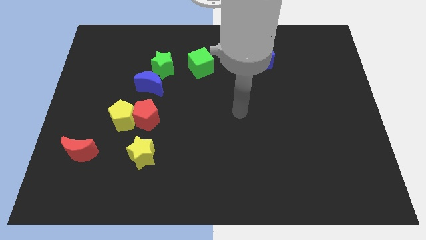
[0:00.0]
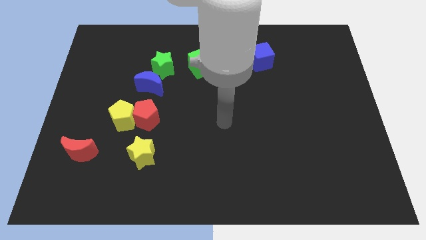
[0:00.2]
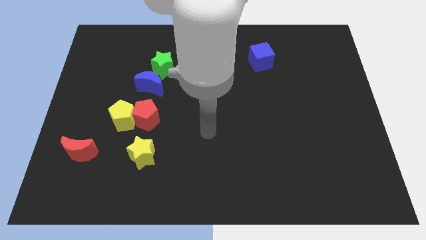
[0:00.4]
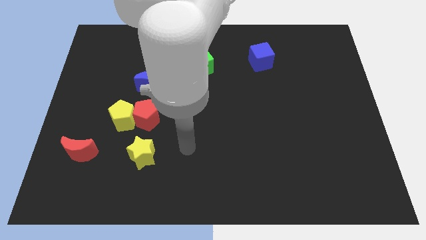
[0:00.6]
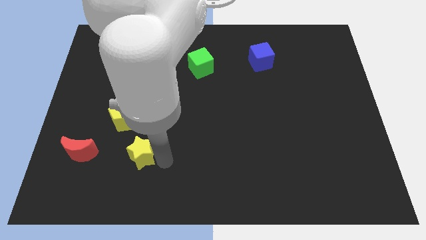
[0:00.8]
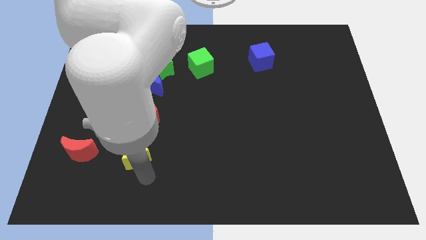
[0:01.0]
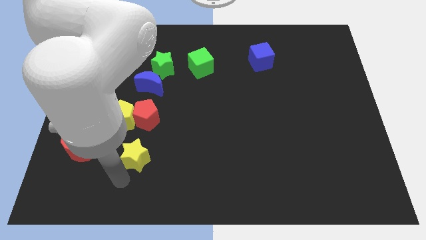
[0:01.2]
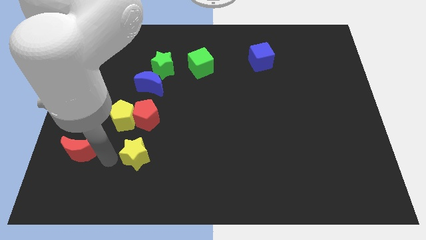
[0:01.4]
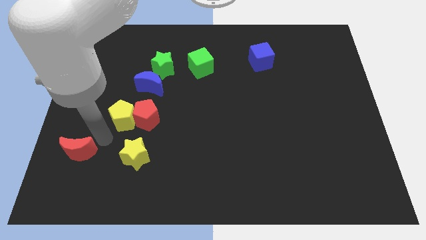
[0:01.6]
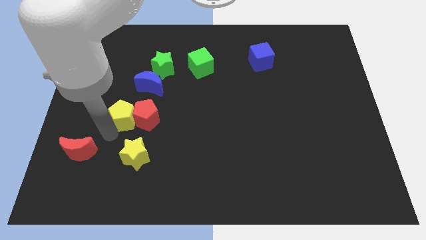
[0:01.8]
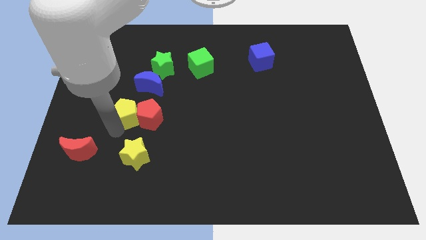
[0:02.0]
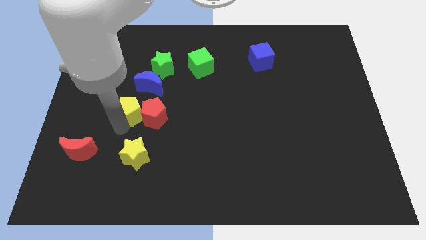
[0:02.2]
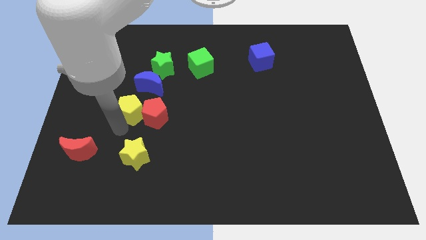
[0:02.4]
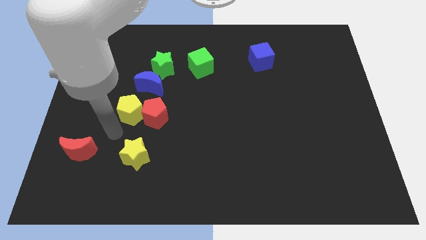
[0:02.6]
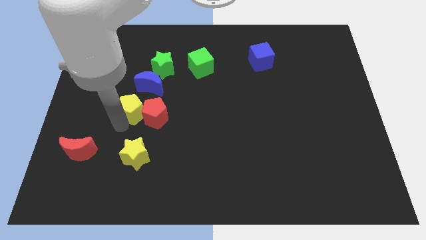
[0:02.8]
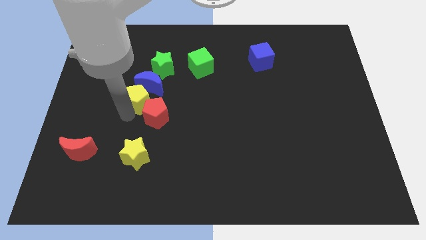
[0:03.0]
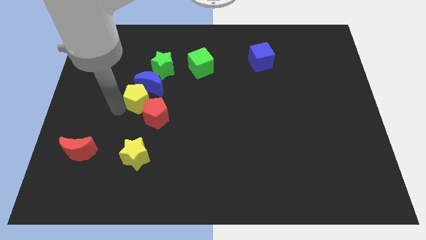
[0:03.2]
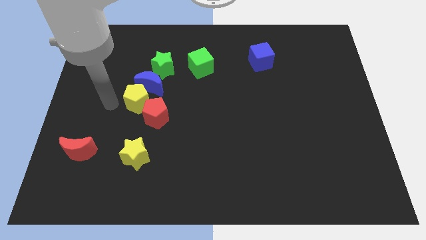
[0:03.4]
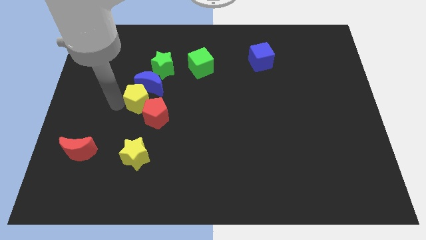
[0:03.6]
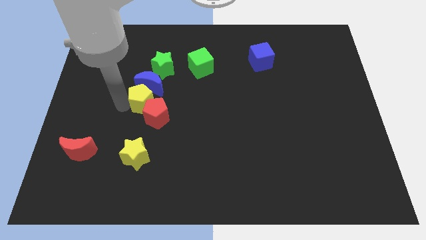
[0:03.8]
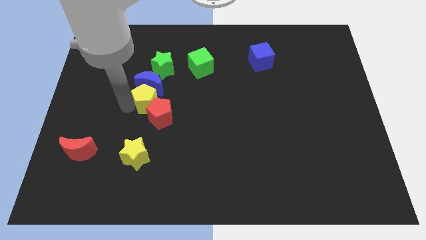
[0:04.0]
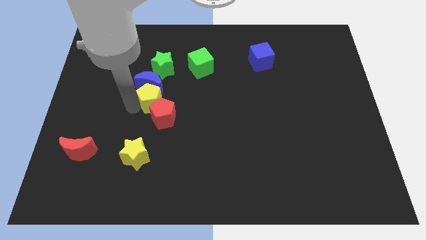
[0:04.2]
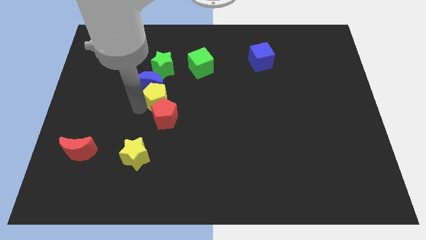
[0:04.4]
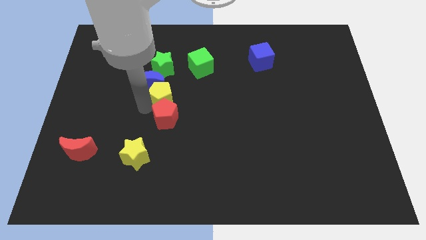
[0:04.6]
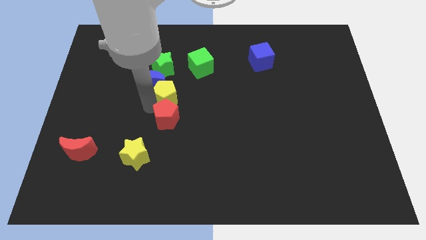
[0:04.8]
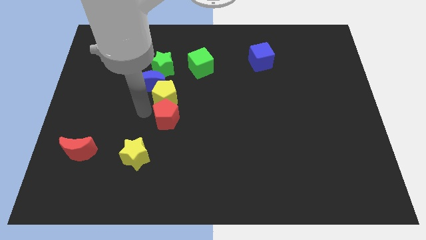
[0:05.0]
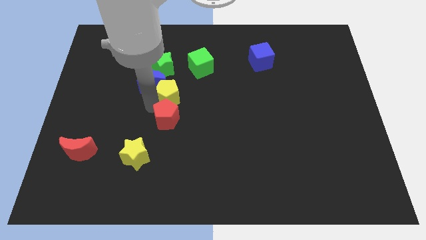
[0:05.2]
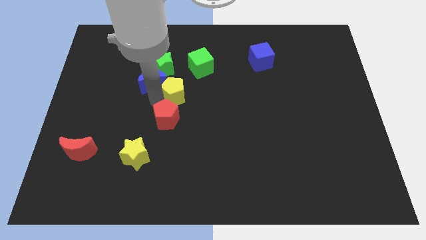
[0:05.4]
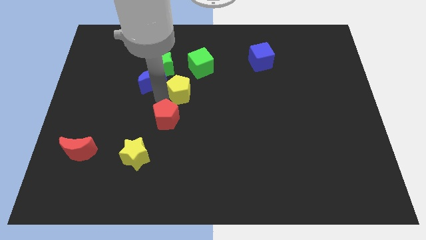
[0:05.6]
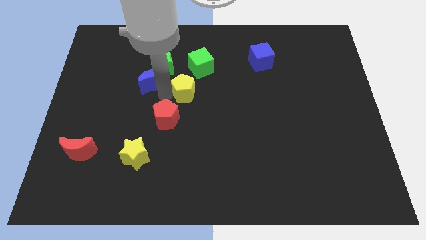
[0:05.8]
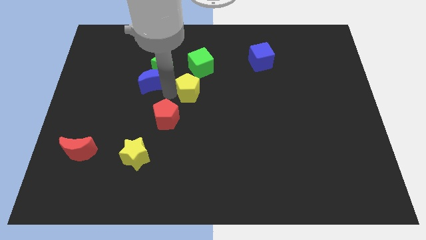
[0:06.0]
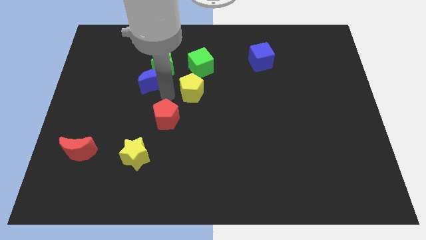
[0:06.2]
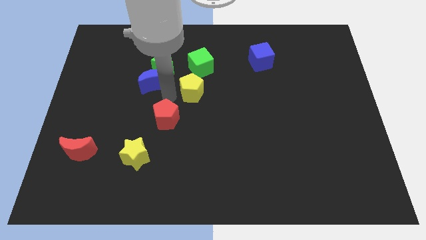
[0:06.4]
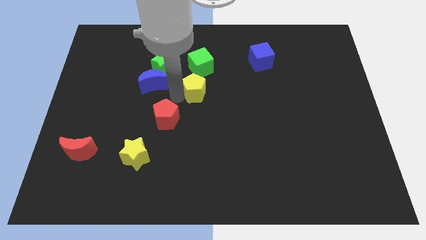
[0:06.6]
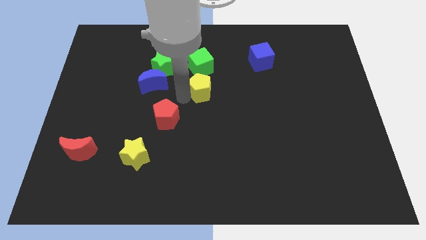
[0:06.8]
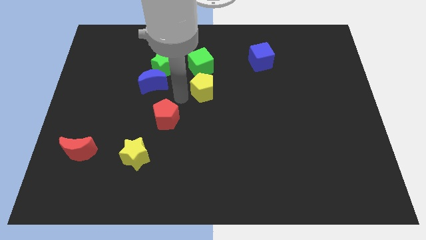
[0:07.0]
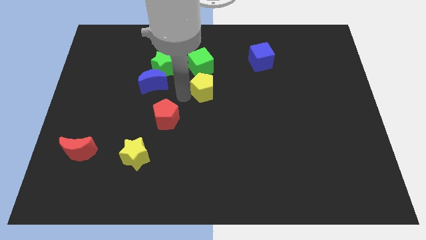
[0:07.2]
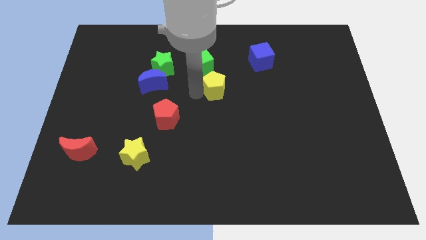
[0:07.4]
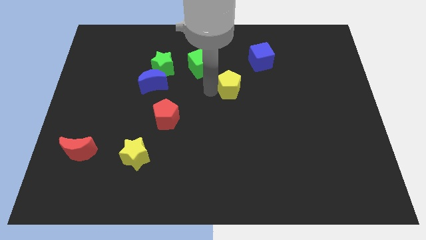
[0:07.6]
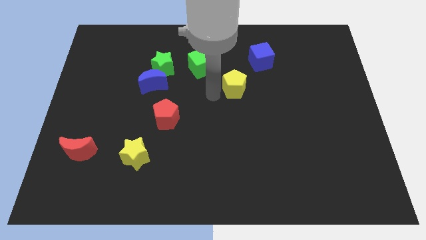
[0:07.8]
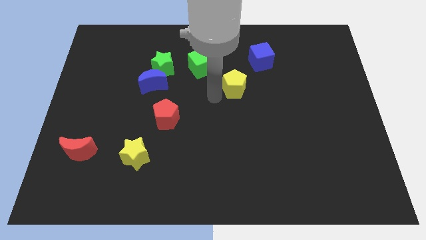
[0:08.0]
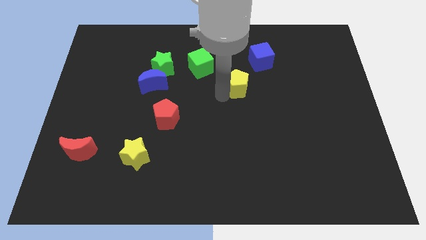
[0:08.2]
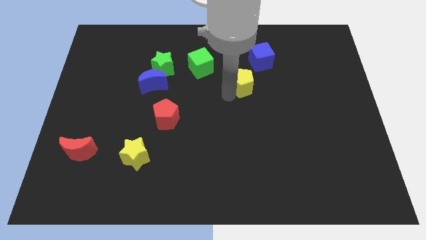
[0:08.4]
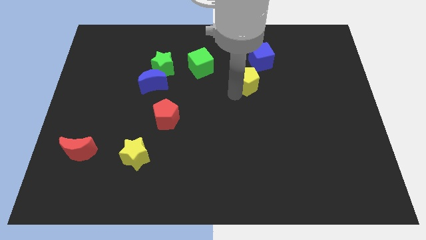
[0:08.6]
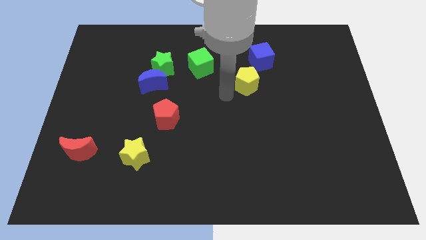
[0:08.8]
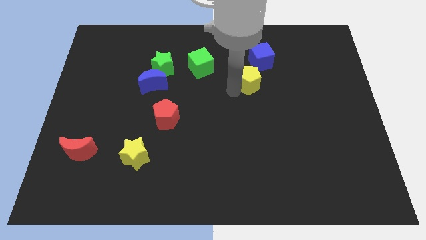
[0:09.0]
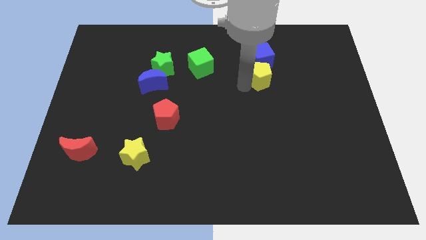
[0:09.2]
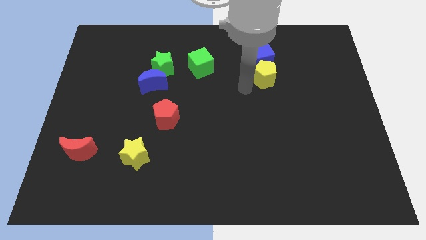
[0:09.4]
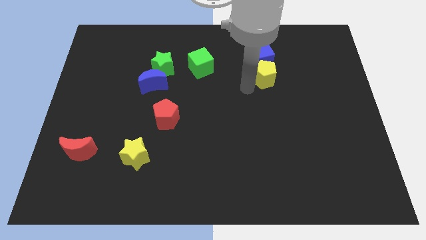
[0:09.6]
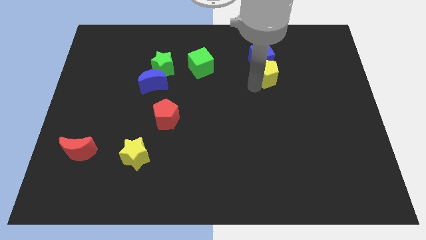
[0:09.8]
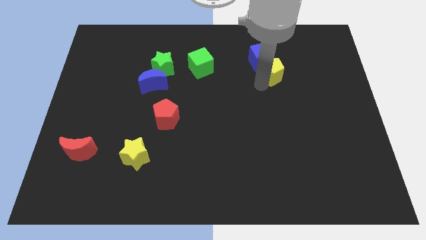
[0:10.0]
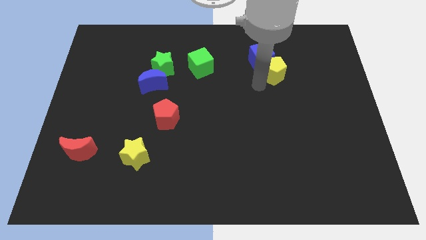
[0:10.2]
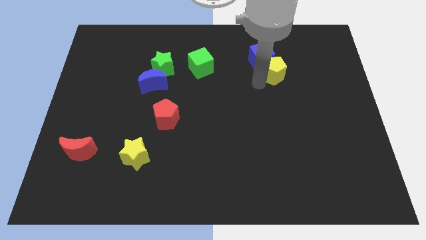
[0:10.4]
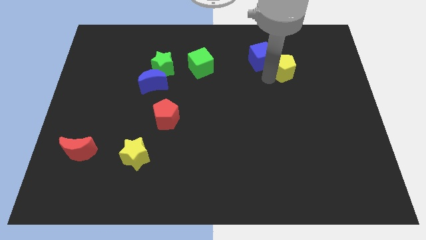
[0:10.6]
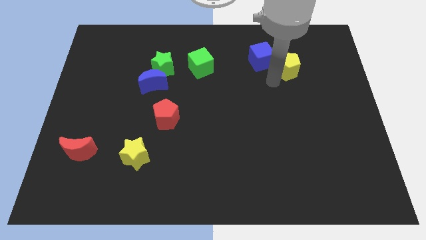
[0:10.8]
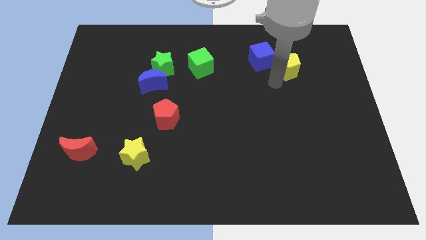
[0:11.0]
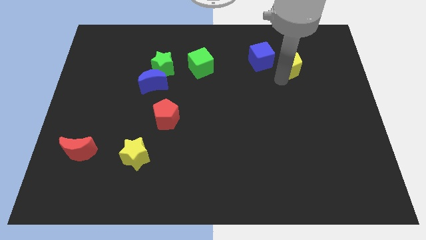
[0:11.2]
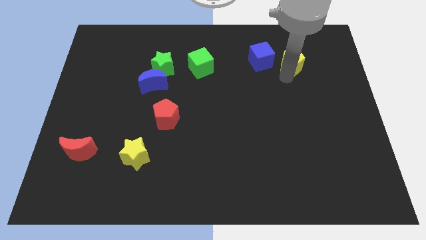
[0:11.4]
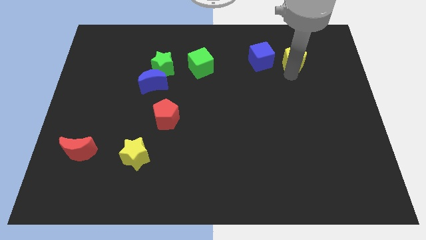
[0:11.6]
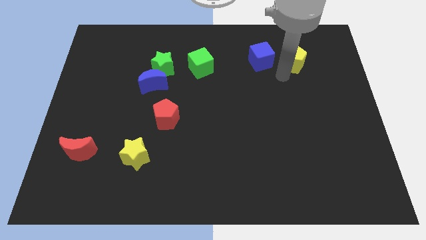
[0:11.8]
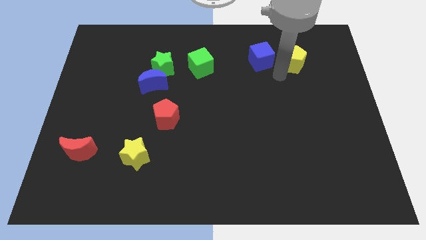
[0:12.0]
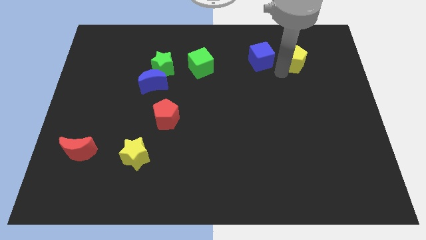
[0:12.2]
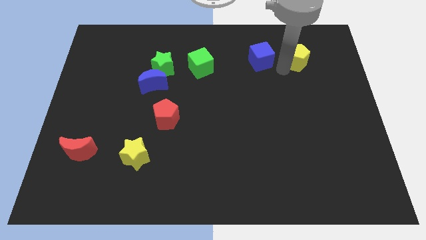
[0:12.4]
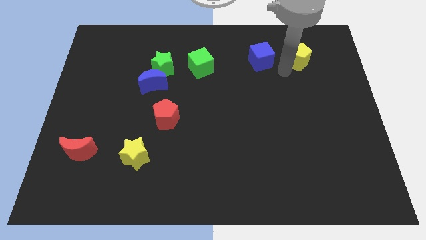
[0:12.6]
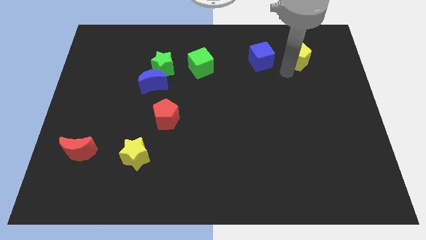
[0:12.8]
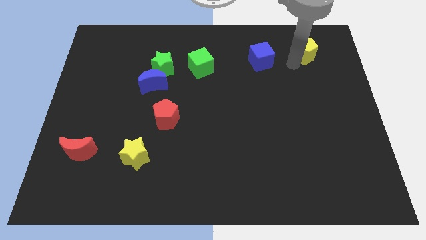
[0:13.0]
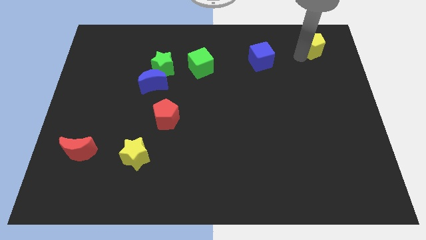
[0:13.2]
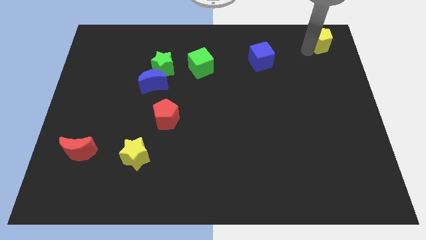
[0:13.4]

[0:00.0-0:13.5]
move the yellow pentagon to the top right
